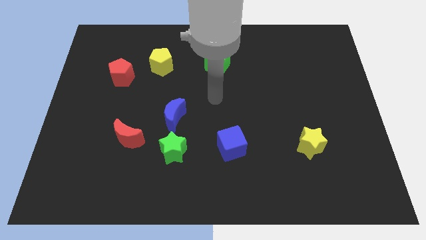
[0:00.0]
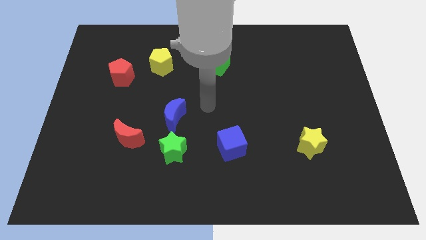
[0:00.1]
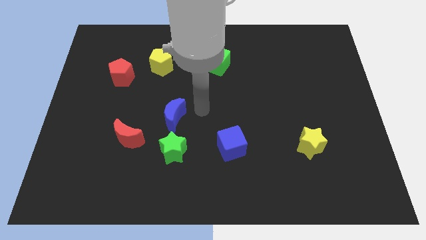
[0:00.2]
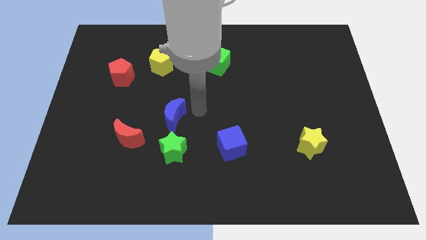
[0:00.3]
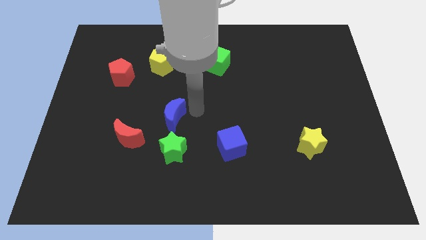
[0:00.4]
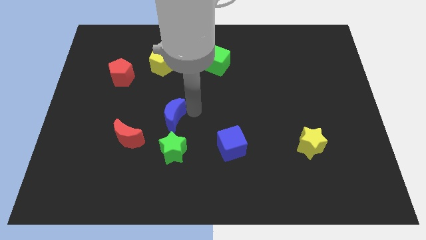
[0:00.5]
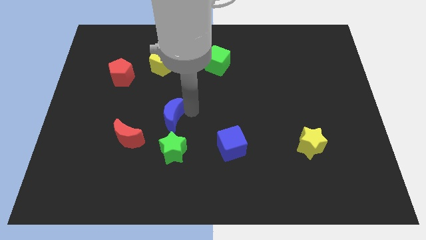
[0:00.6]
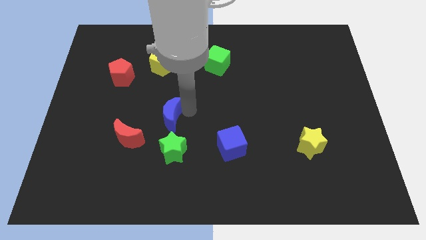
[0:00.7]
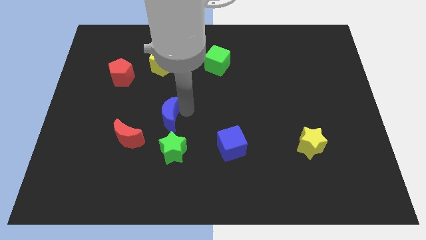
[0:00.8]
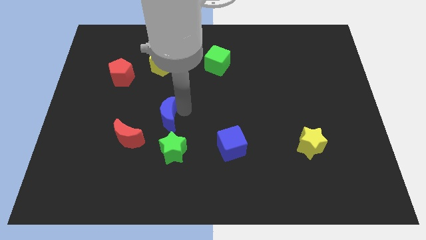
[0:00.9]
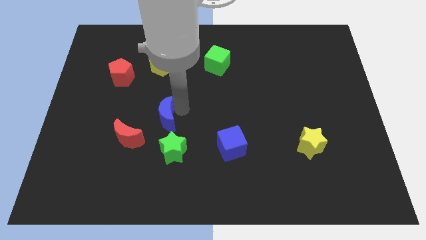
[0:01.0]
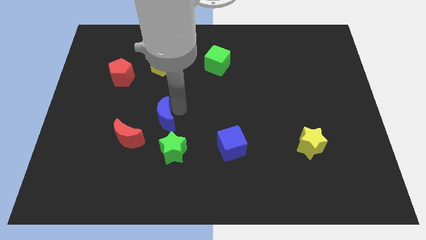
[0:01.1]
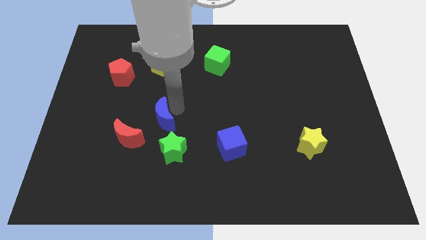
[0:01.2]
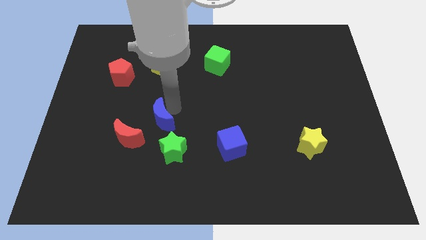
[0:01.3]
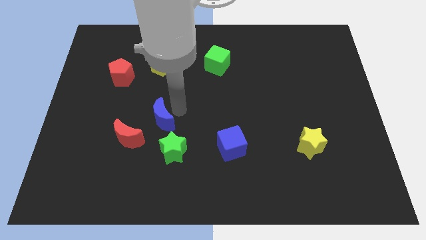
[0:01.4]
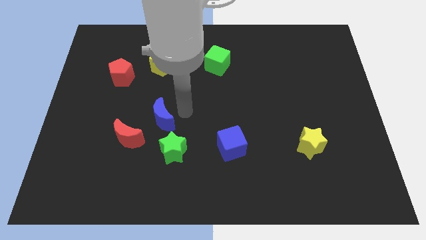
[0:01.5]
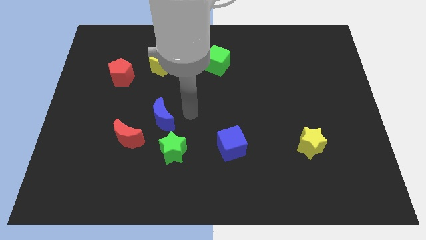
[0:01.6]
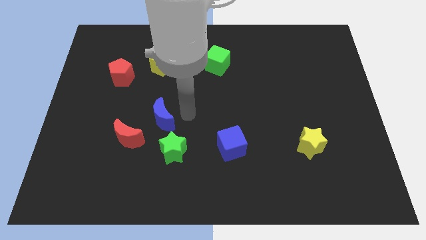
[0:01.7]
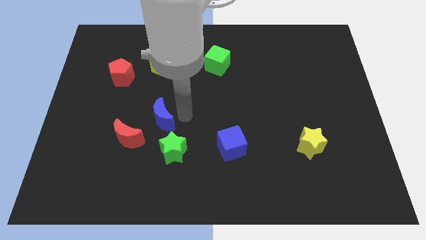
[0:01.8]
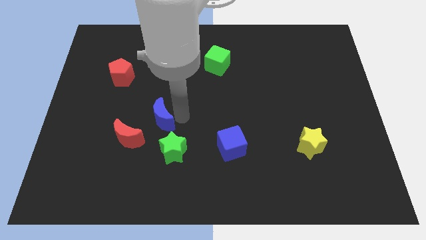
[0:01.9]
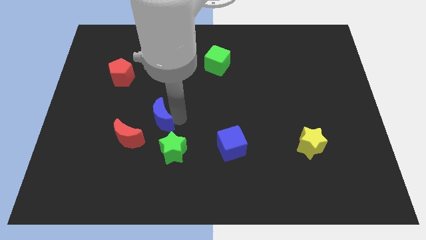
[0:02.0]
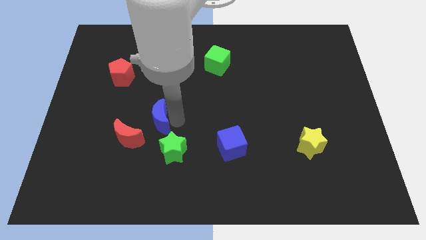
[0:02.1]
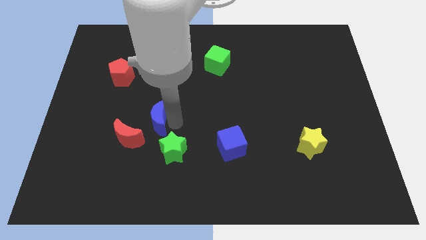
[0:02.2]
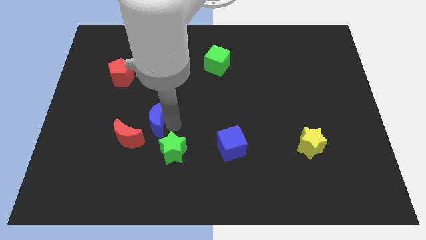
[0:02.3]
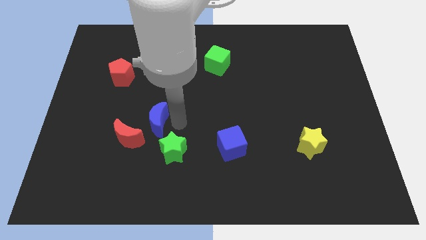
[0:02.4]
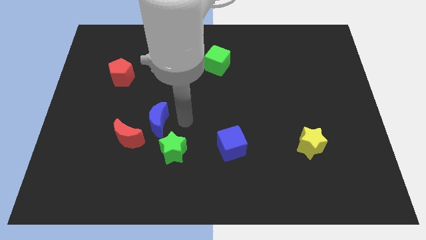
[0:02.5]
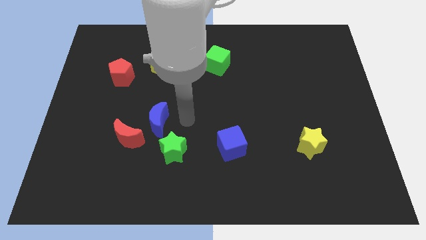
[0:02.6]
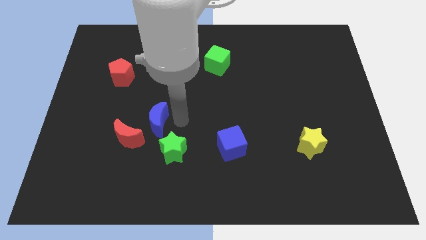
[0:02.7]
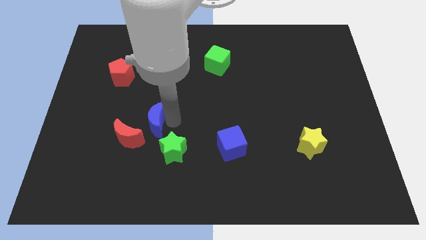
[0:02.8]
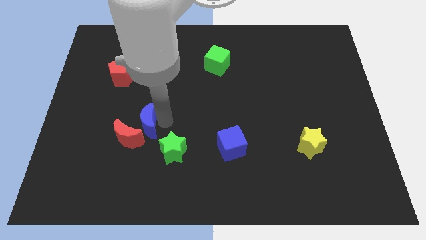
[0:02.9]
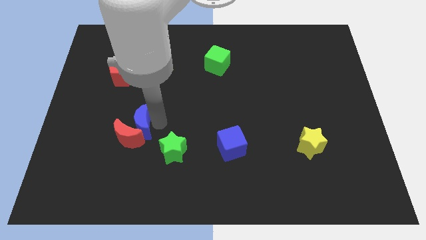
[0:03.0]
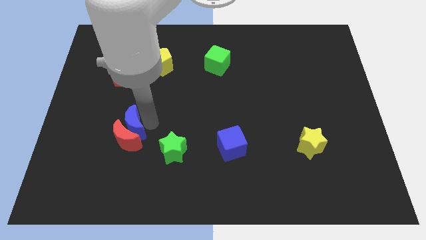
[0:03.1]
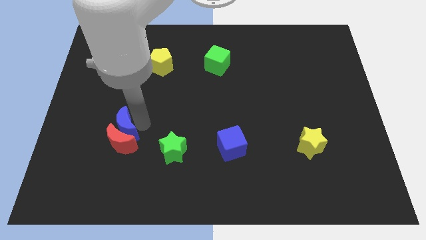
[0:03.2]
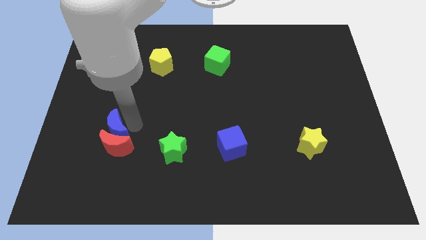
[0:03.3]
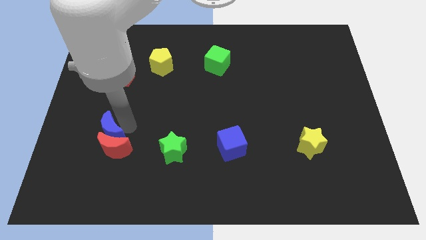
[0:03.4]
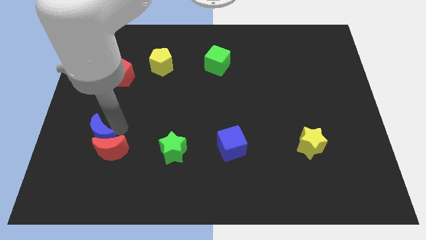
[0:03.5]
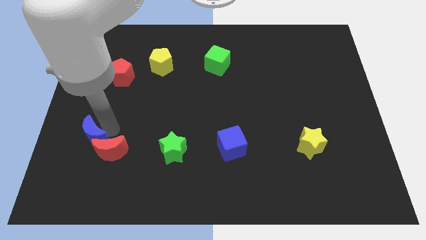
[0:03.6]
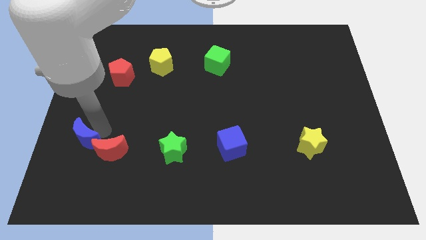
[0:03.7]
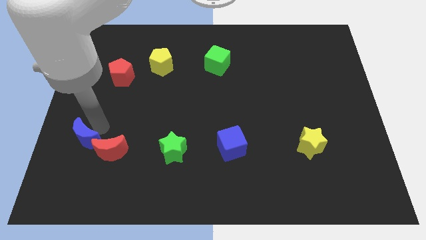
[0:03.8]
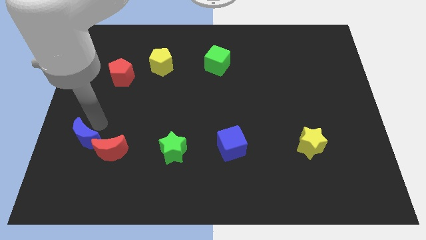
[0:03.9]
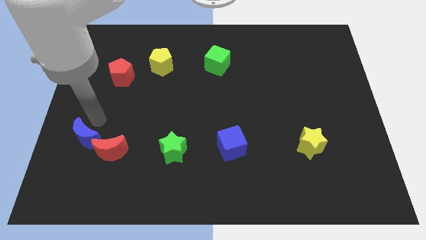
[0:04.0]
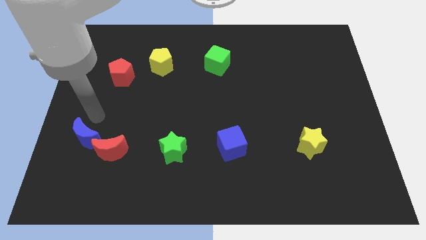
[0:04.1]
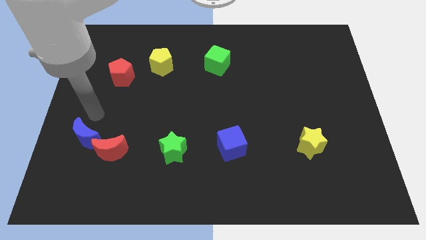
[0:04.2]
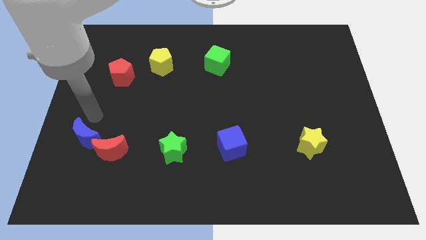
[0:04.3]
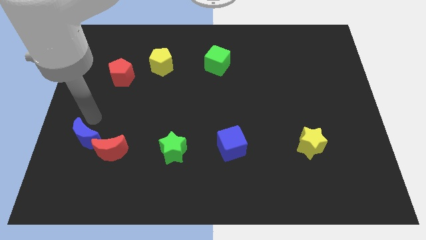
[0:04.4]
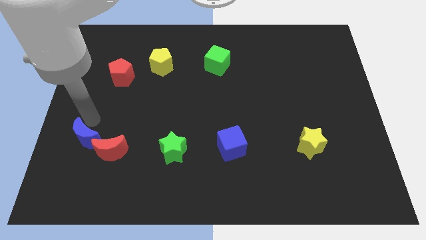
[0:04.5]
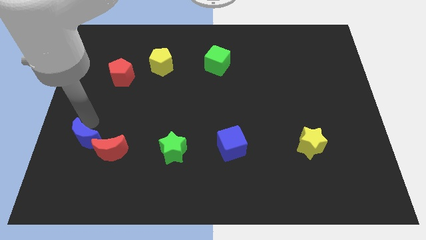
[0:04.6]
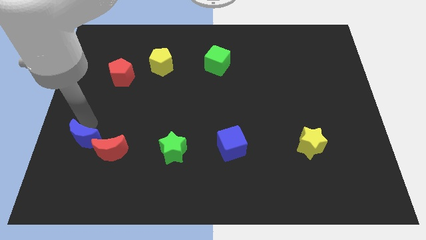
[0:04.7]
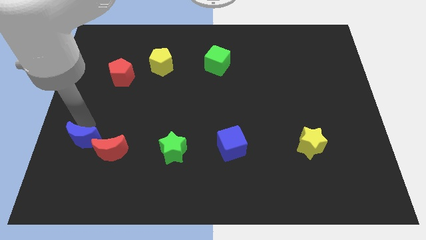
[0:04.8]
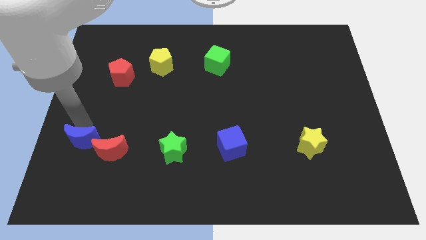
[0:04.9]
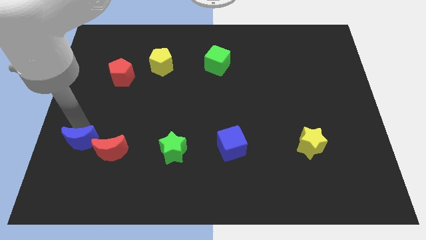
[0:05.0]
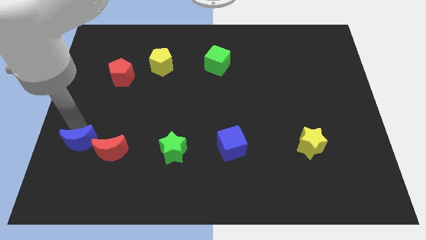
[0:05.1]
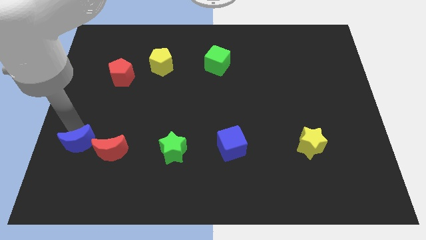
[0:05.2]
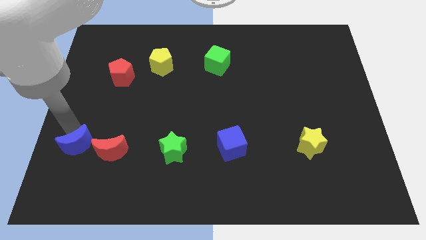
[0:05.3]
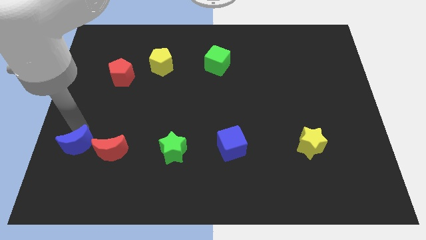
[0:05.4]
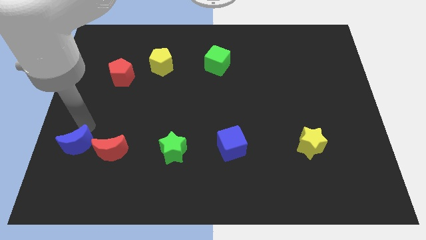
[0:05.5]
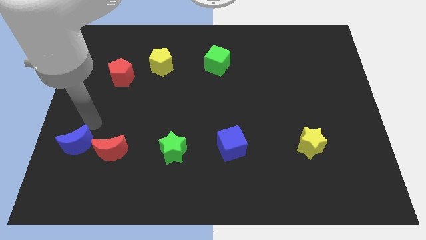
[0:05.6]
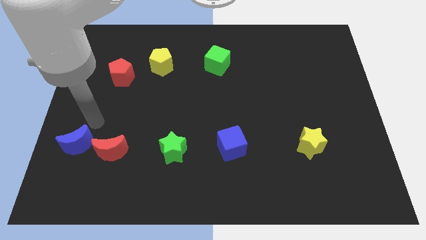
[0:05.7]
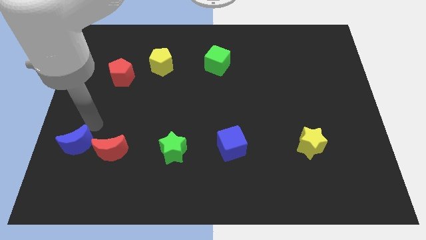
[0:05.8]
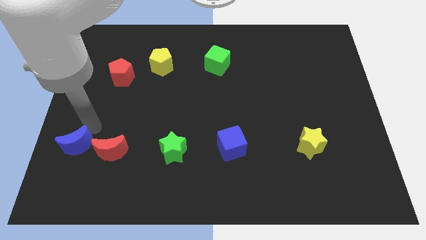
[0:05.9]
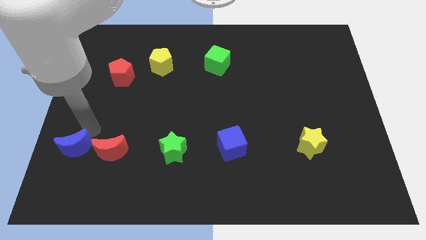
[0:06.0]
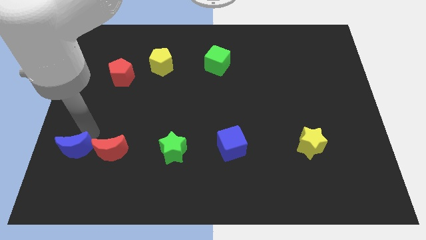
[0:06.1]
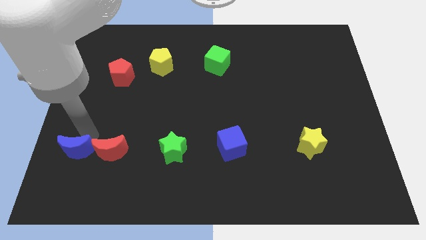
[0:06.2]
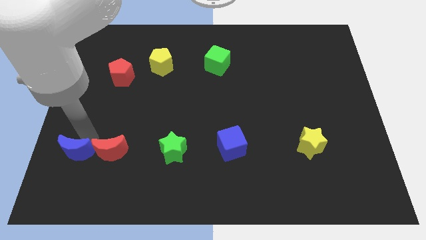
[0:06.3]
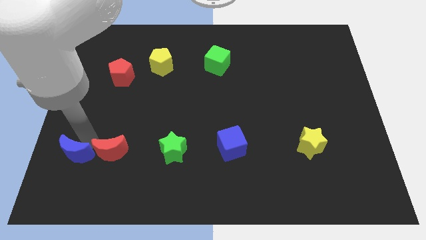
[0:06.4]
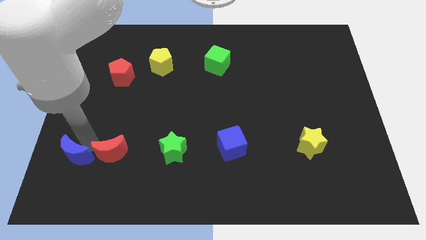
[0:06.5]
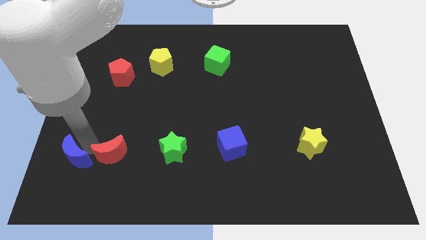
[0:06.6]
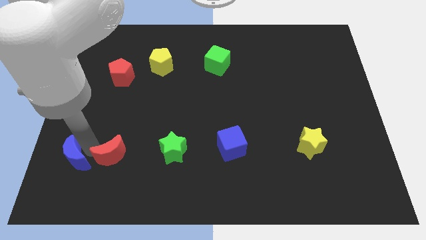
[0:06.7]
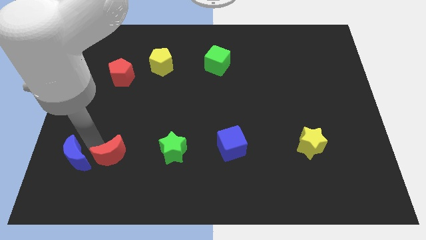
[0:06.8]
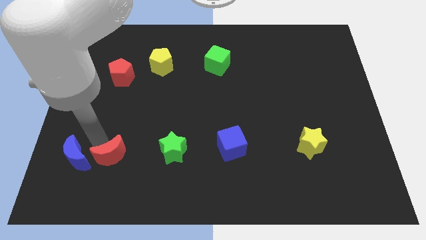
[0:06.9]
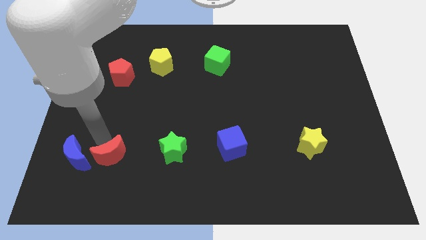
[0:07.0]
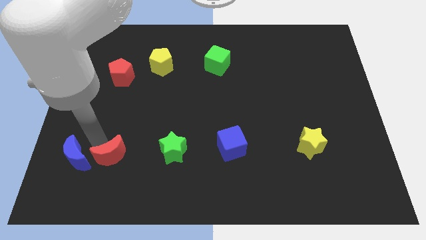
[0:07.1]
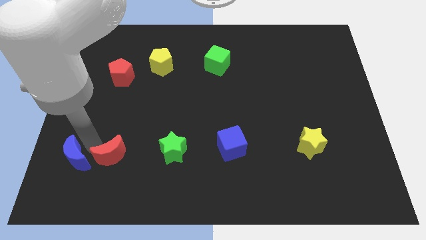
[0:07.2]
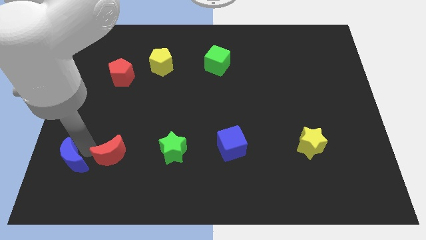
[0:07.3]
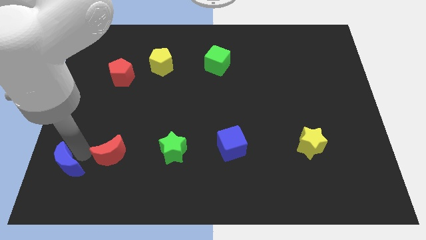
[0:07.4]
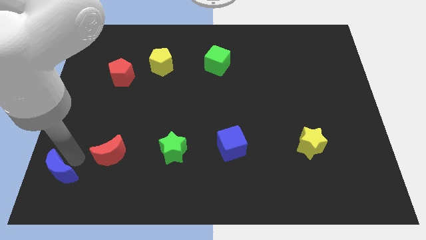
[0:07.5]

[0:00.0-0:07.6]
slide the blue moon to the lower left corner
